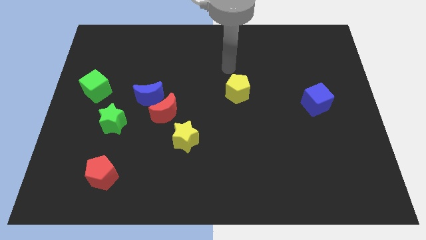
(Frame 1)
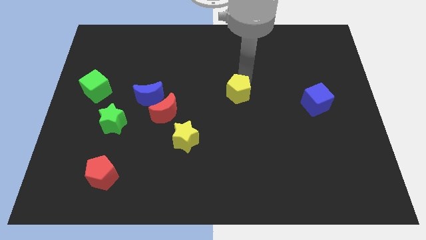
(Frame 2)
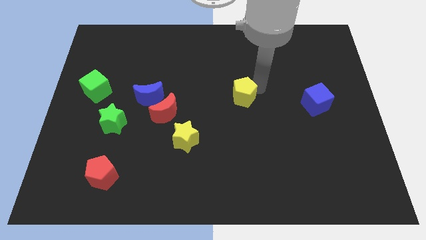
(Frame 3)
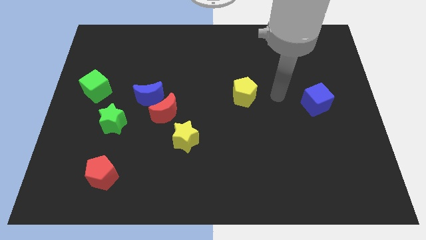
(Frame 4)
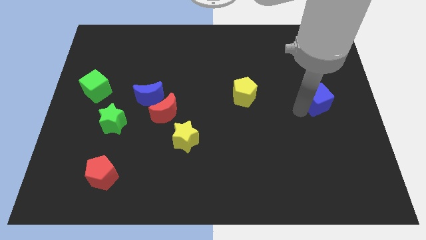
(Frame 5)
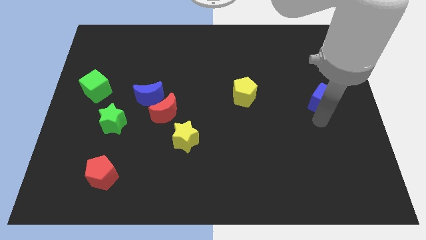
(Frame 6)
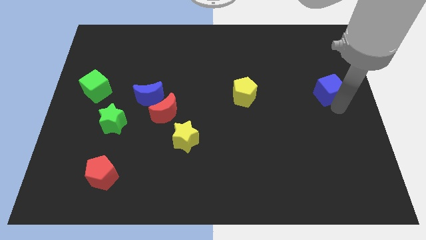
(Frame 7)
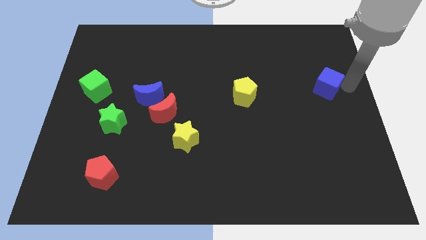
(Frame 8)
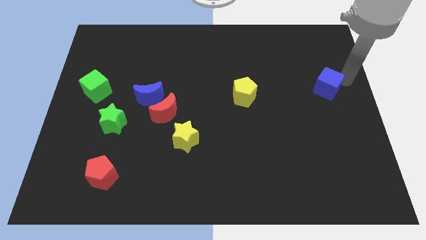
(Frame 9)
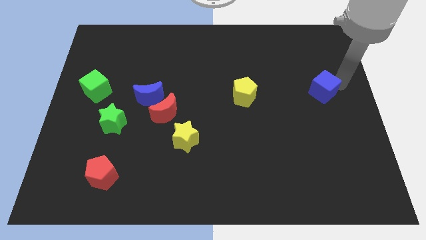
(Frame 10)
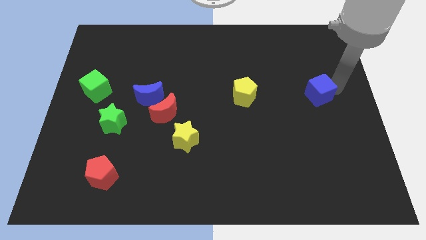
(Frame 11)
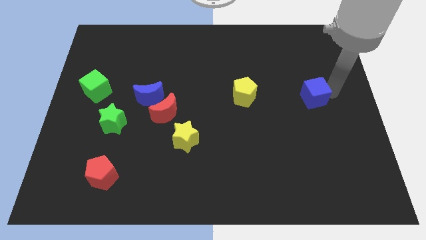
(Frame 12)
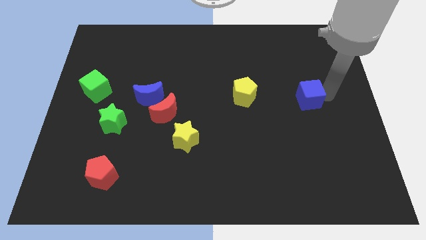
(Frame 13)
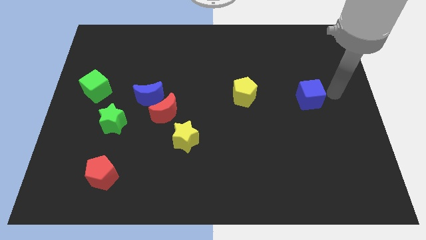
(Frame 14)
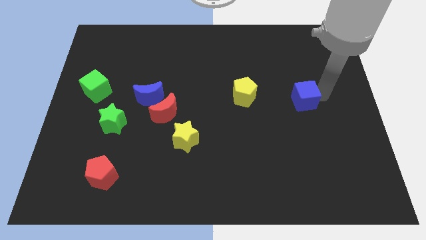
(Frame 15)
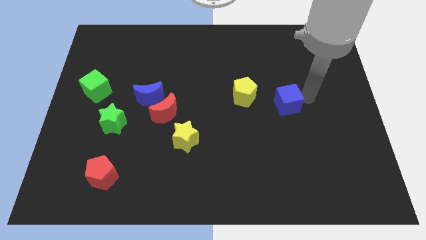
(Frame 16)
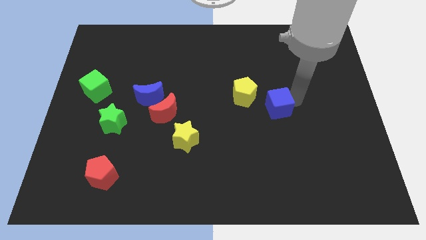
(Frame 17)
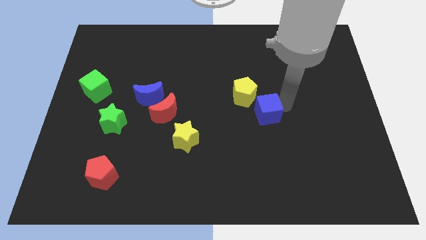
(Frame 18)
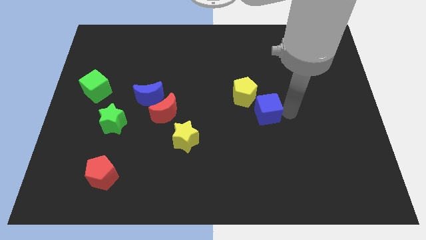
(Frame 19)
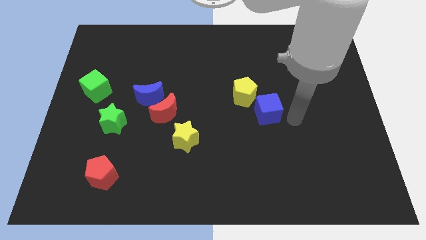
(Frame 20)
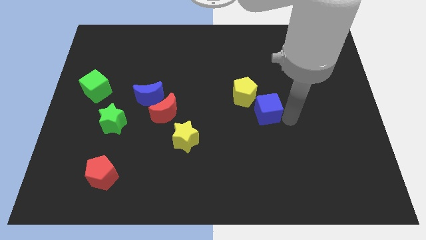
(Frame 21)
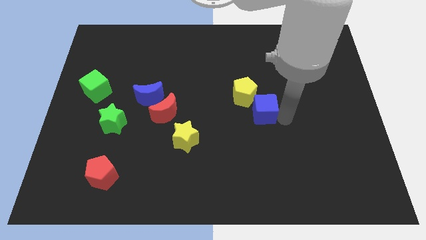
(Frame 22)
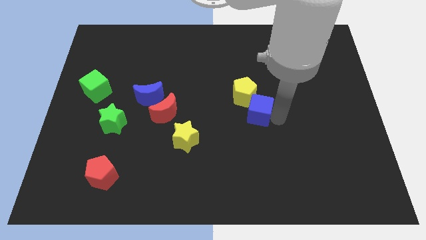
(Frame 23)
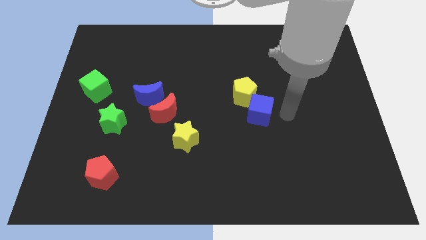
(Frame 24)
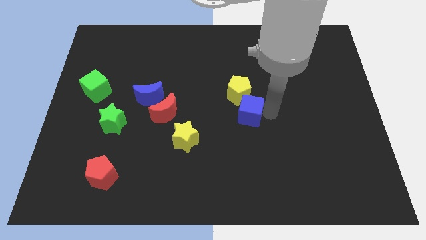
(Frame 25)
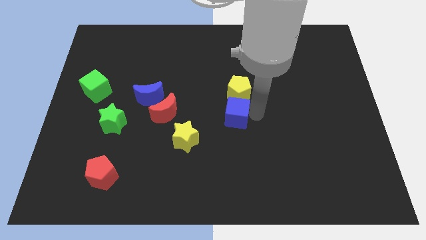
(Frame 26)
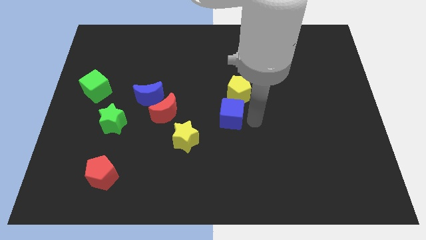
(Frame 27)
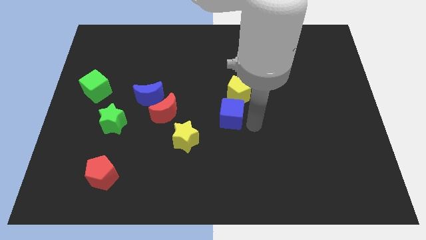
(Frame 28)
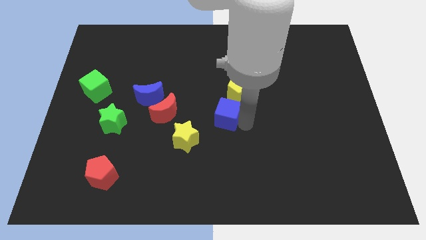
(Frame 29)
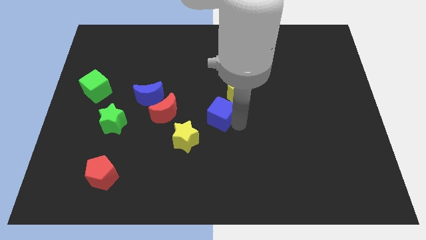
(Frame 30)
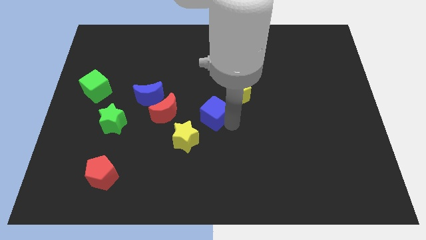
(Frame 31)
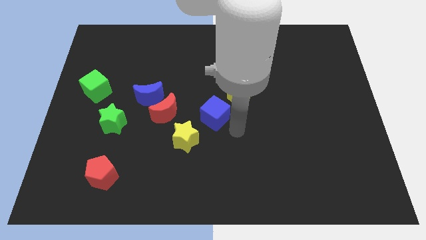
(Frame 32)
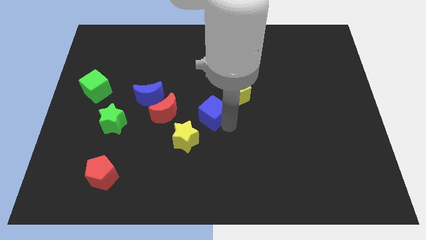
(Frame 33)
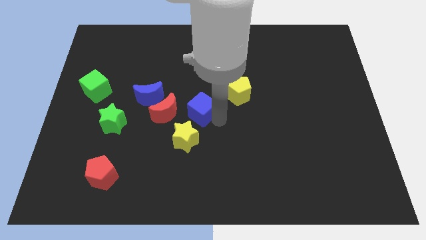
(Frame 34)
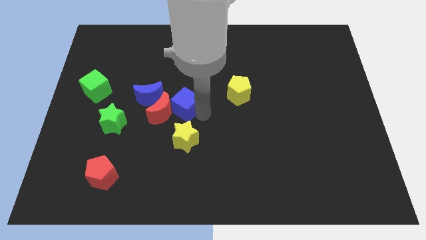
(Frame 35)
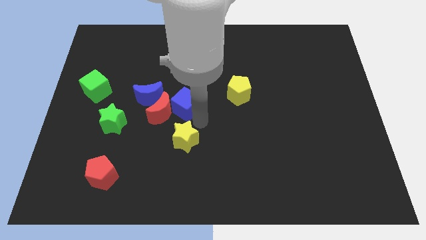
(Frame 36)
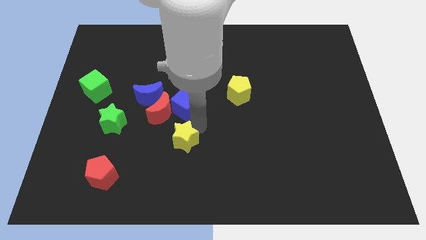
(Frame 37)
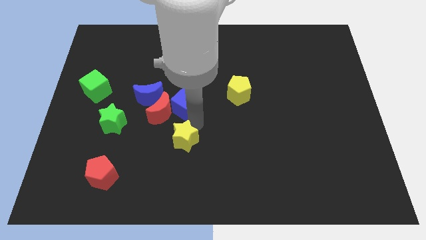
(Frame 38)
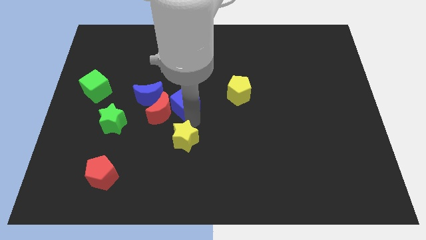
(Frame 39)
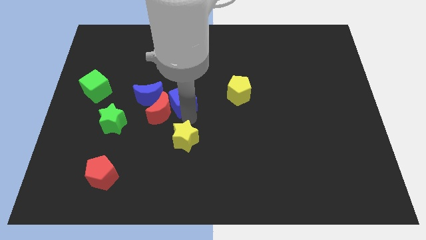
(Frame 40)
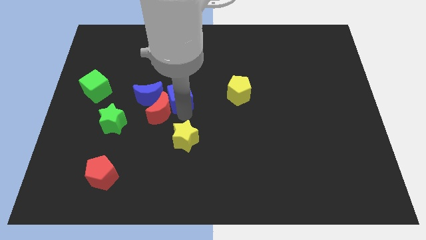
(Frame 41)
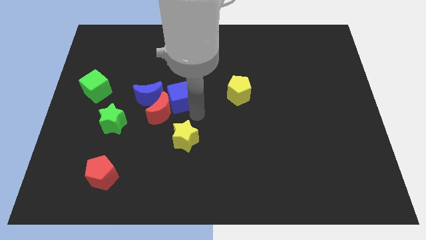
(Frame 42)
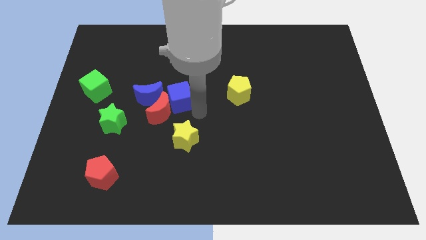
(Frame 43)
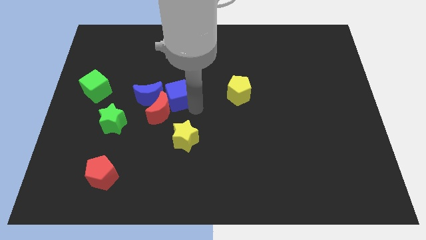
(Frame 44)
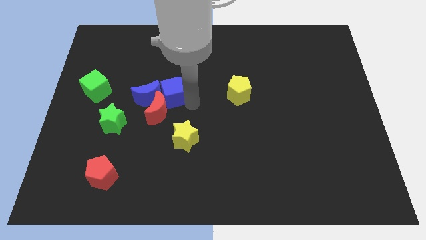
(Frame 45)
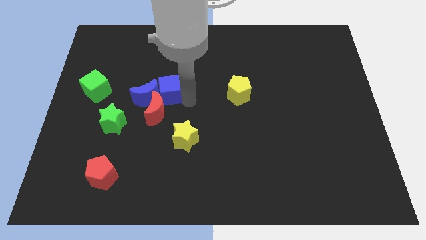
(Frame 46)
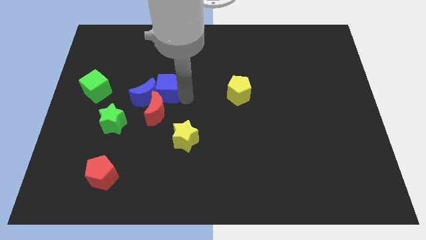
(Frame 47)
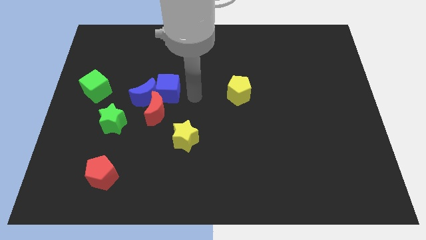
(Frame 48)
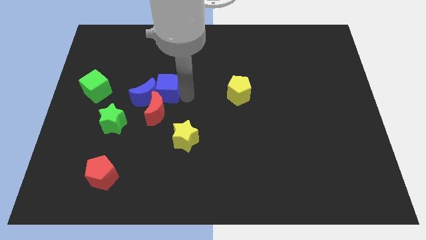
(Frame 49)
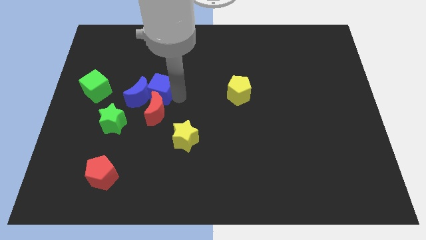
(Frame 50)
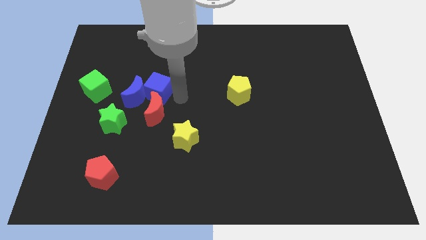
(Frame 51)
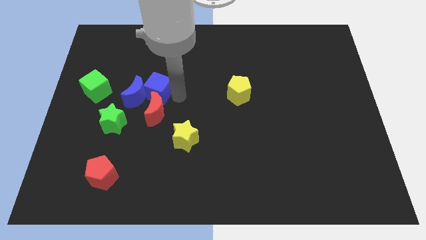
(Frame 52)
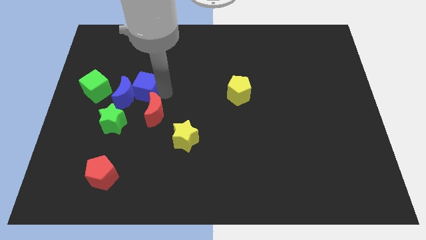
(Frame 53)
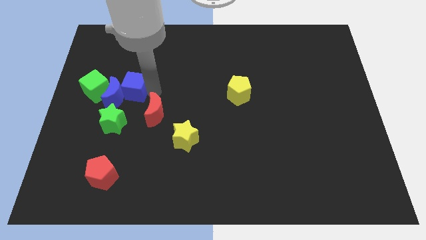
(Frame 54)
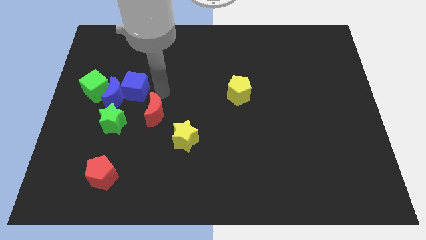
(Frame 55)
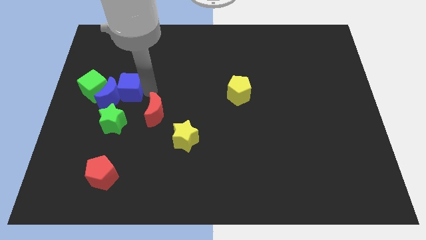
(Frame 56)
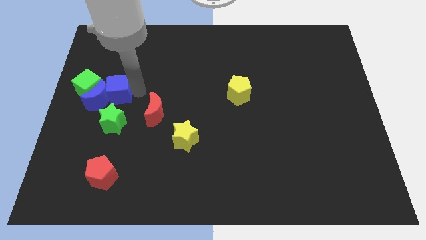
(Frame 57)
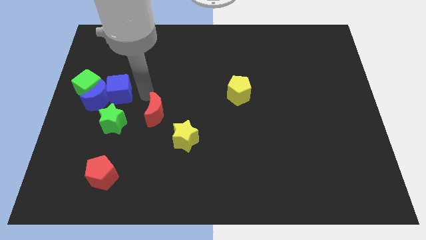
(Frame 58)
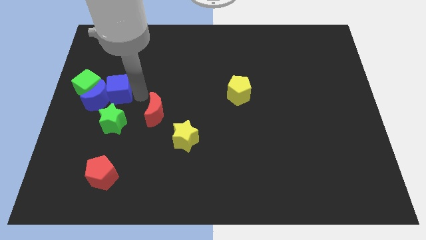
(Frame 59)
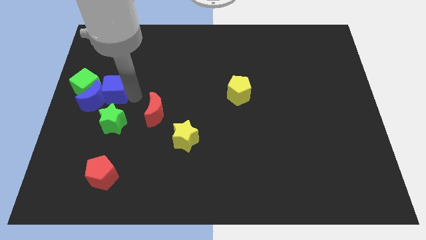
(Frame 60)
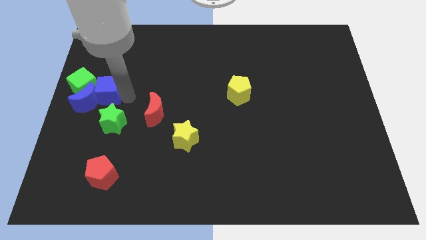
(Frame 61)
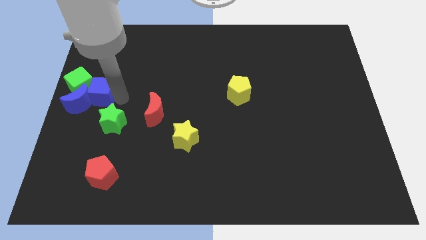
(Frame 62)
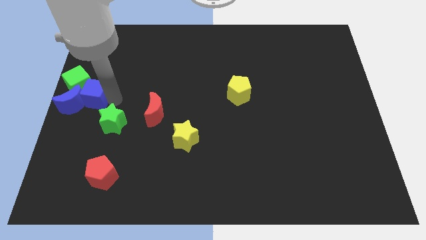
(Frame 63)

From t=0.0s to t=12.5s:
put the blue cube to the green cube
